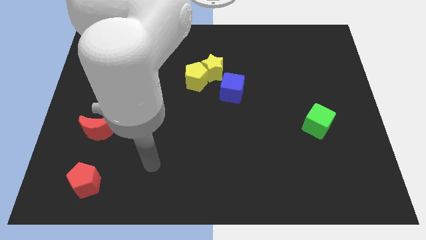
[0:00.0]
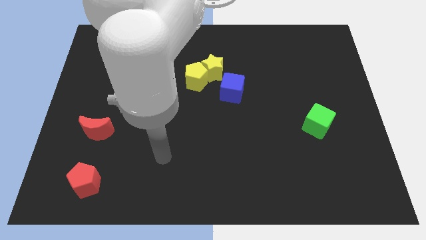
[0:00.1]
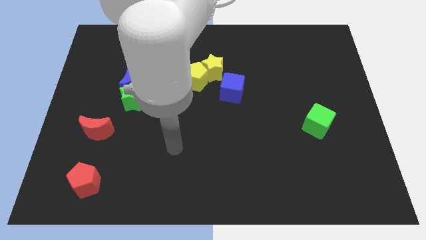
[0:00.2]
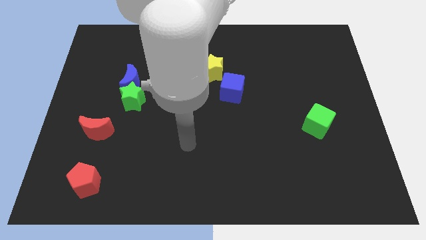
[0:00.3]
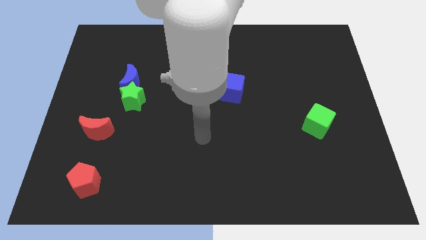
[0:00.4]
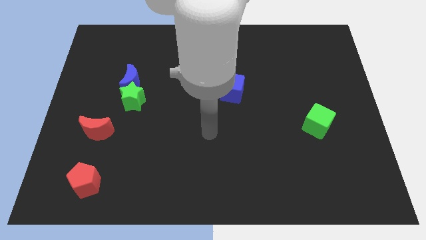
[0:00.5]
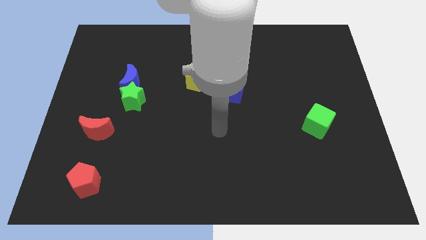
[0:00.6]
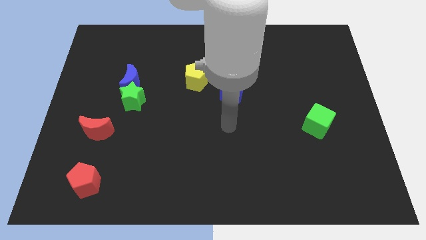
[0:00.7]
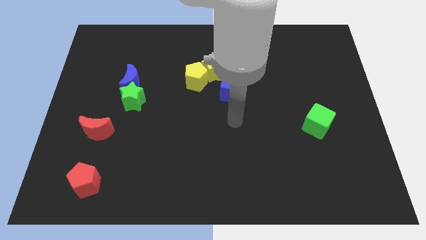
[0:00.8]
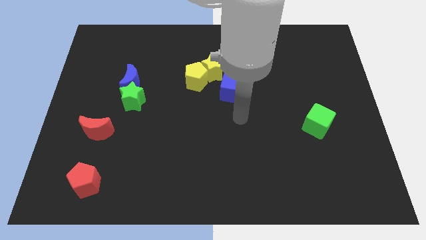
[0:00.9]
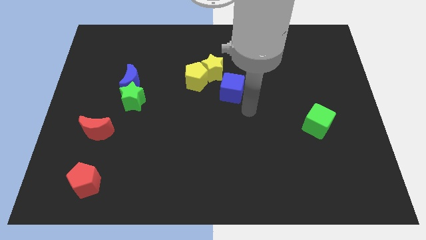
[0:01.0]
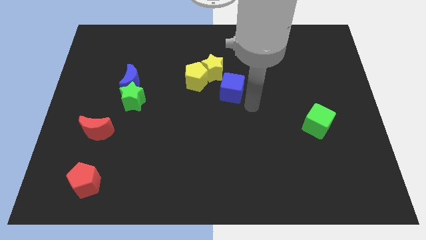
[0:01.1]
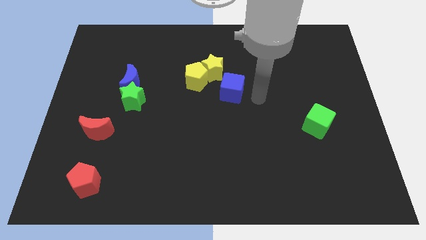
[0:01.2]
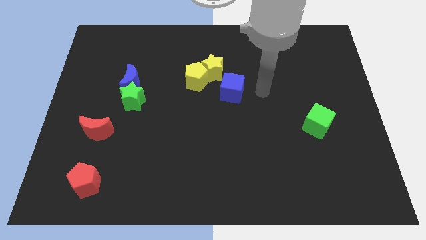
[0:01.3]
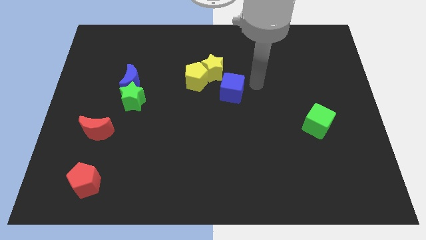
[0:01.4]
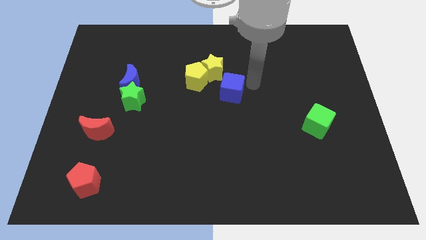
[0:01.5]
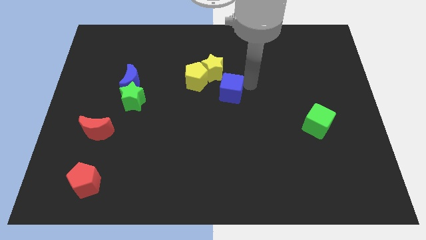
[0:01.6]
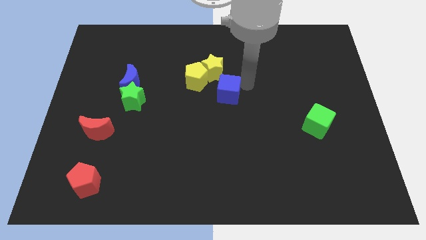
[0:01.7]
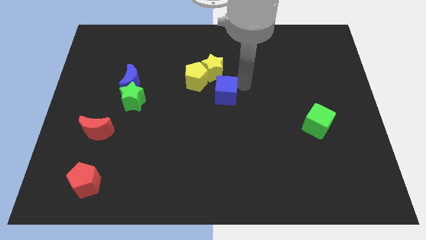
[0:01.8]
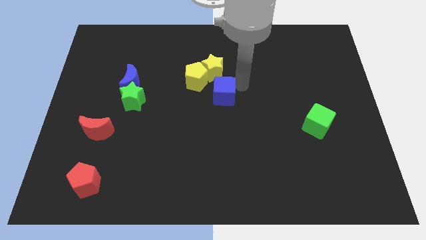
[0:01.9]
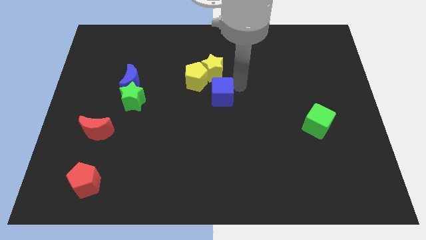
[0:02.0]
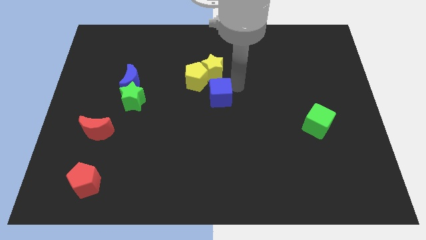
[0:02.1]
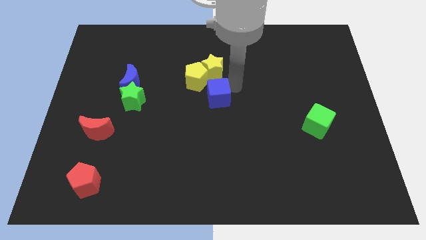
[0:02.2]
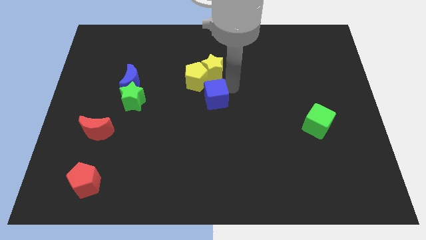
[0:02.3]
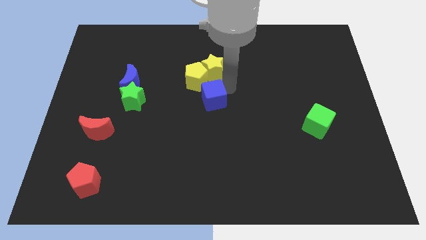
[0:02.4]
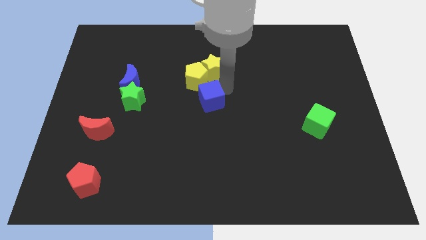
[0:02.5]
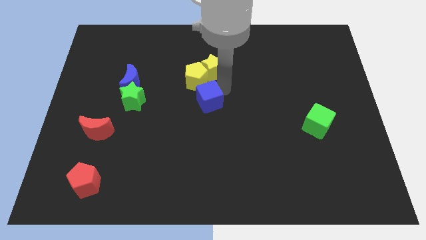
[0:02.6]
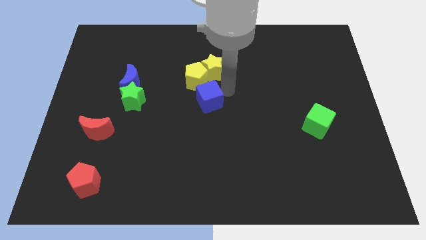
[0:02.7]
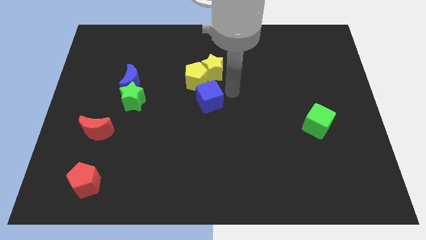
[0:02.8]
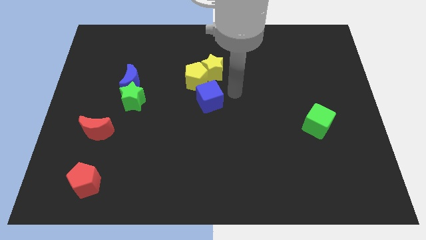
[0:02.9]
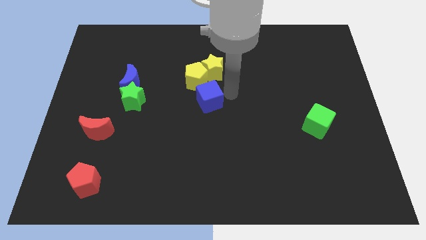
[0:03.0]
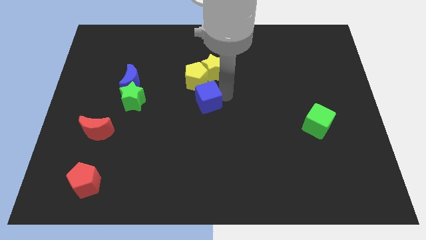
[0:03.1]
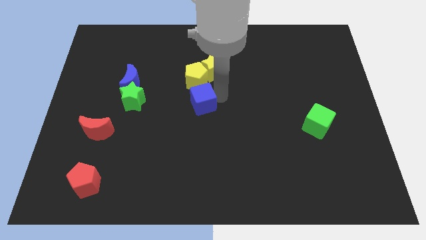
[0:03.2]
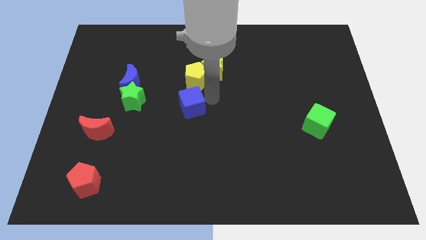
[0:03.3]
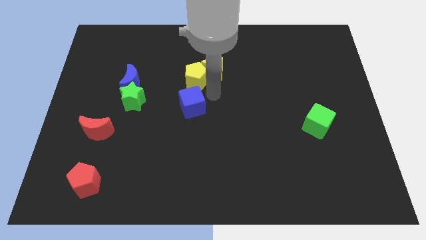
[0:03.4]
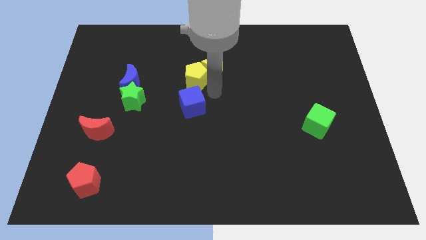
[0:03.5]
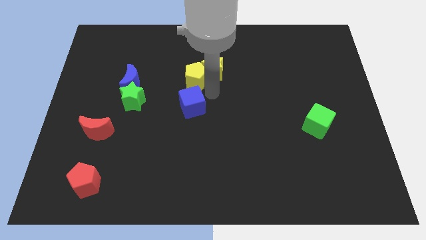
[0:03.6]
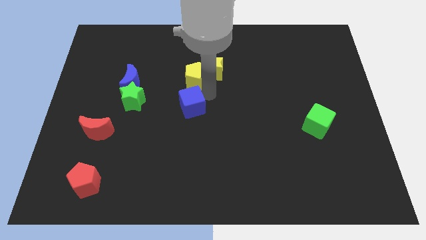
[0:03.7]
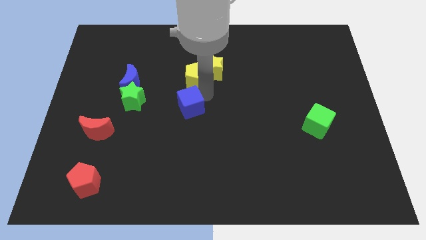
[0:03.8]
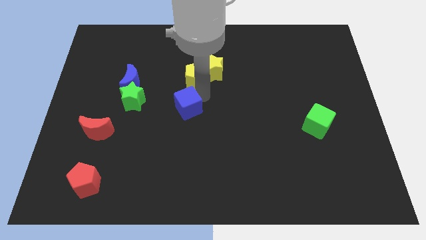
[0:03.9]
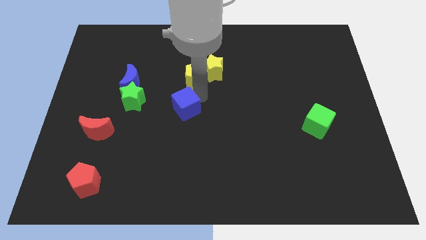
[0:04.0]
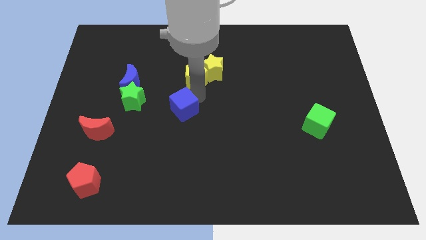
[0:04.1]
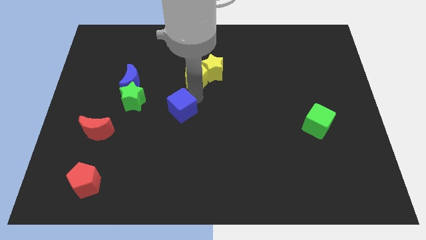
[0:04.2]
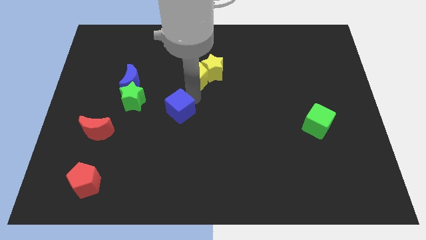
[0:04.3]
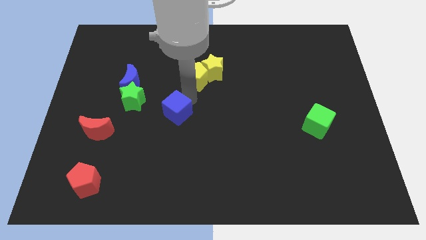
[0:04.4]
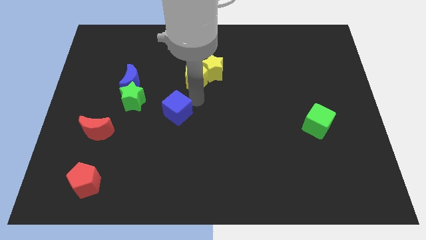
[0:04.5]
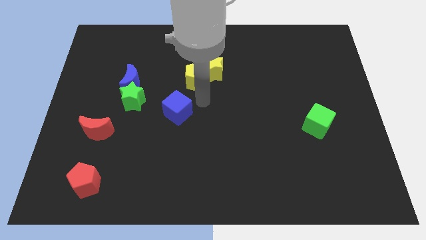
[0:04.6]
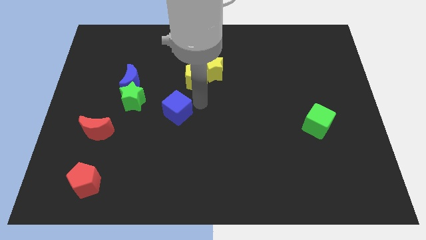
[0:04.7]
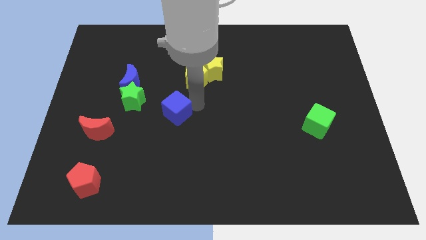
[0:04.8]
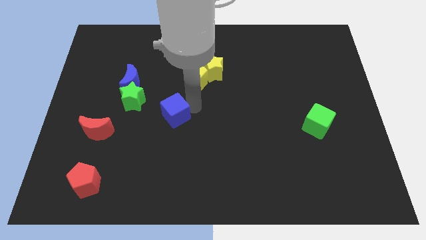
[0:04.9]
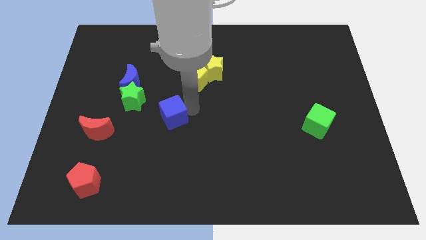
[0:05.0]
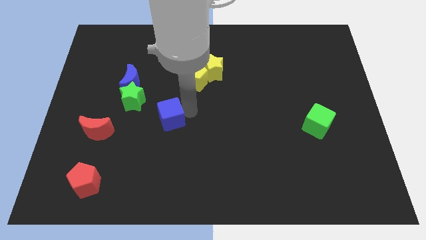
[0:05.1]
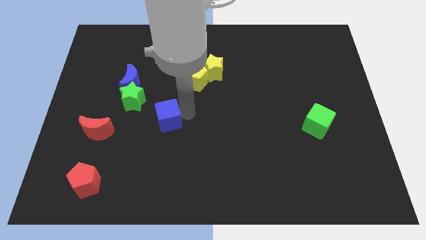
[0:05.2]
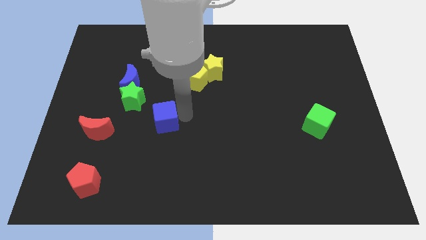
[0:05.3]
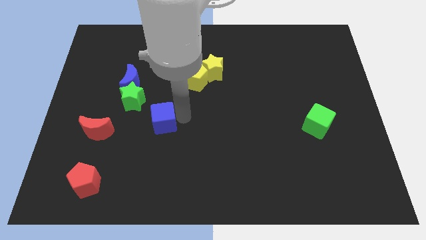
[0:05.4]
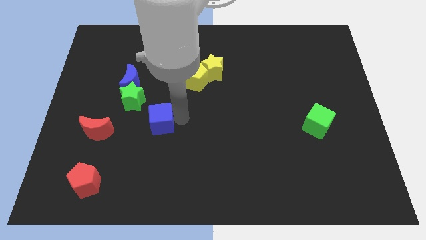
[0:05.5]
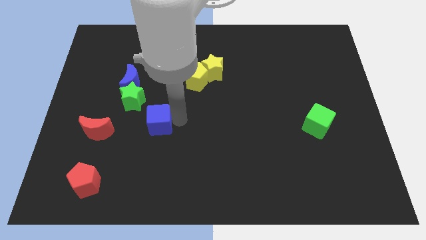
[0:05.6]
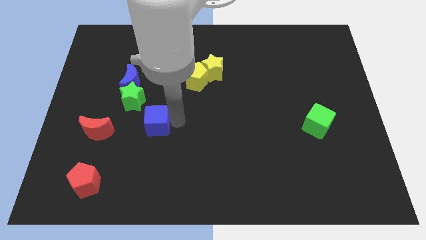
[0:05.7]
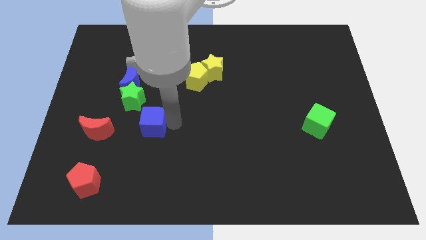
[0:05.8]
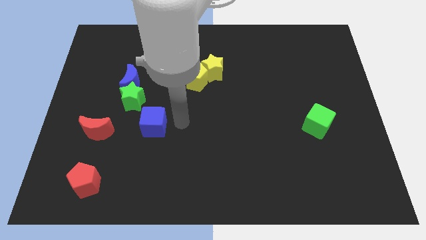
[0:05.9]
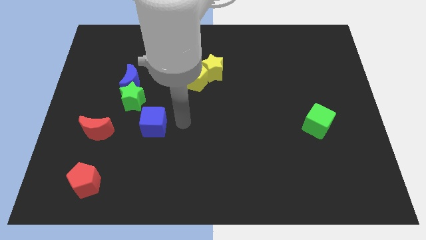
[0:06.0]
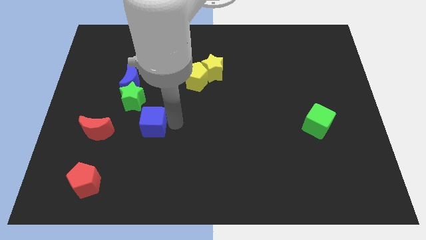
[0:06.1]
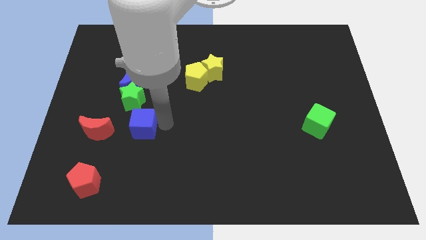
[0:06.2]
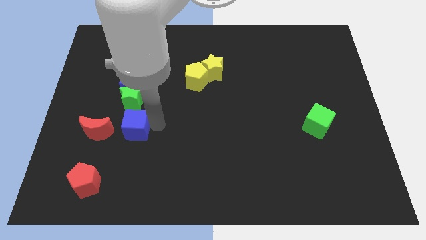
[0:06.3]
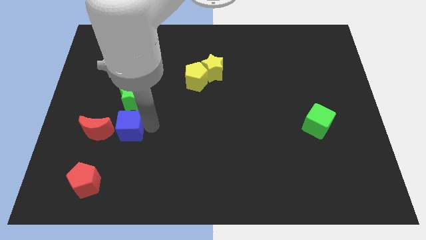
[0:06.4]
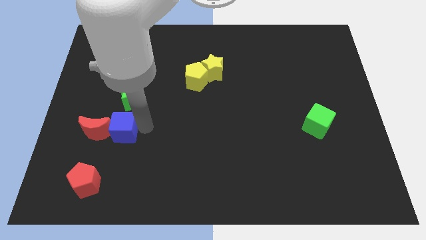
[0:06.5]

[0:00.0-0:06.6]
push the blue cube close to the red moon
